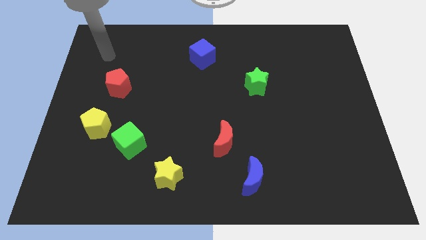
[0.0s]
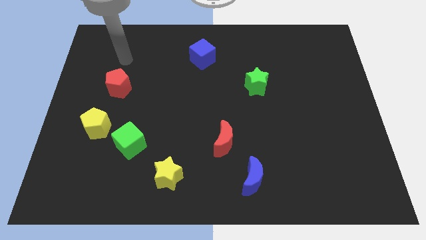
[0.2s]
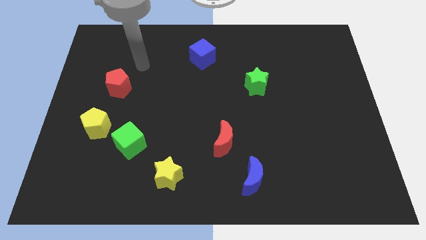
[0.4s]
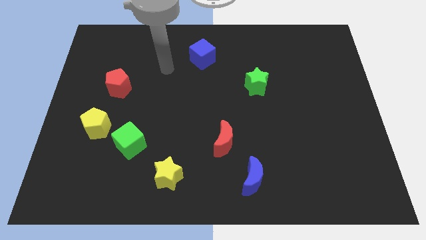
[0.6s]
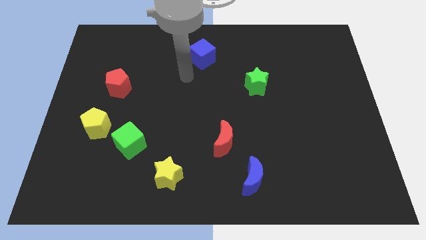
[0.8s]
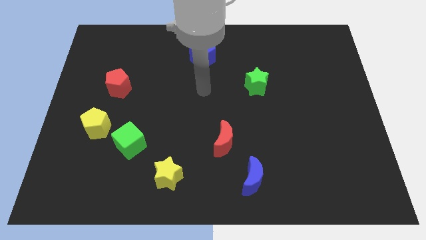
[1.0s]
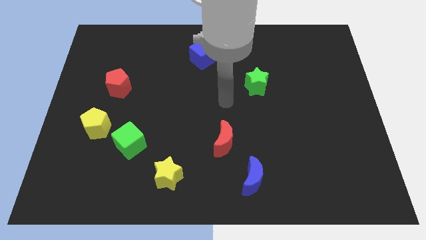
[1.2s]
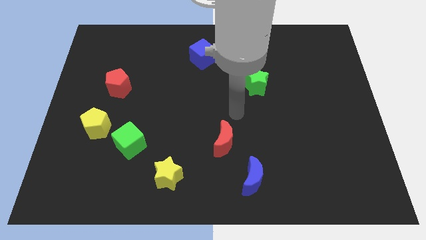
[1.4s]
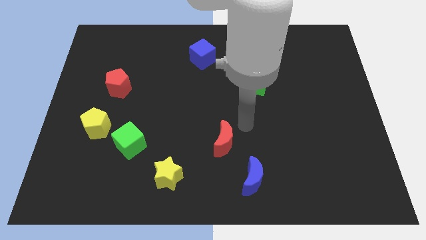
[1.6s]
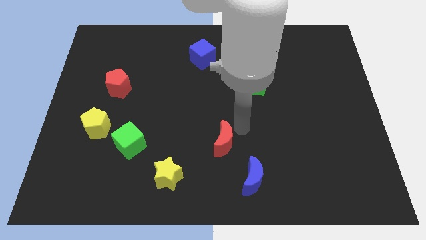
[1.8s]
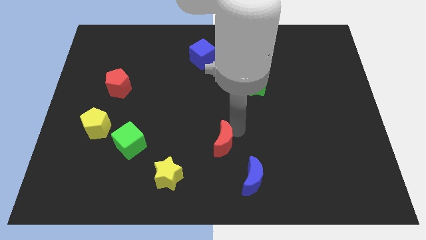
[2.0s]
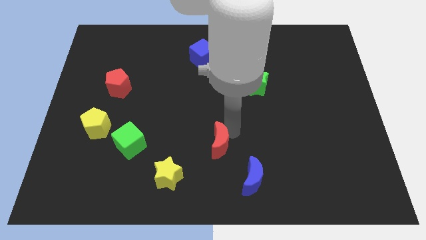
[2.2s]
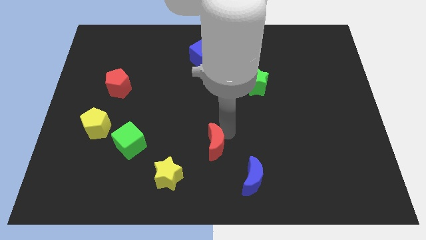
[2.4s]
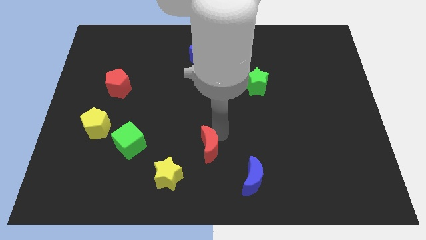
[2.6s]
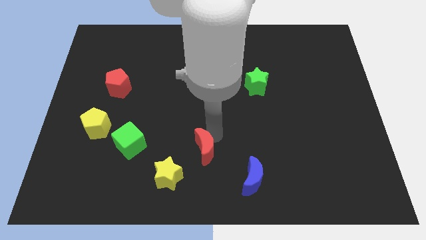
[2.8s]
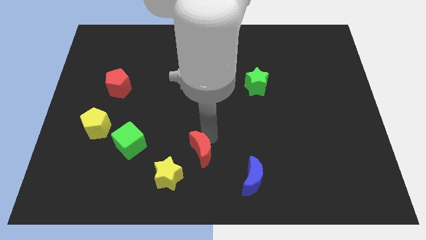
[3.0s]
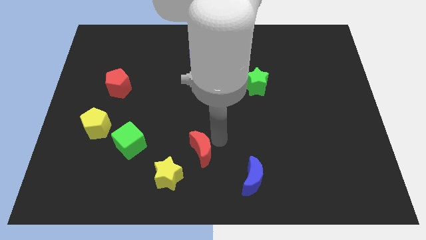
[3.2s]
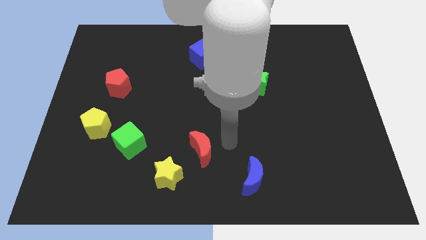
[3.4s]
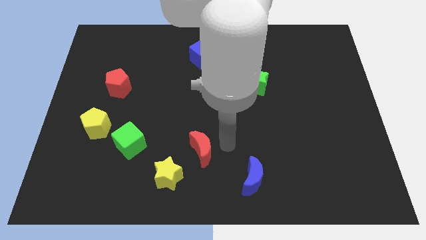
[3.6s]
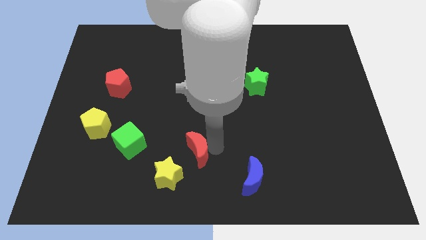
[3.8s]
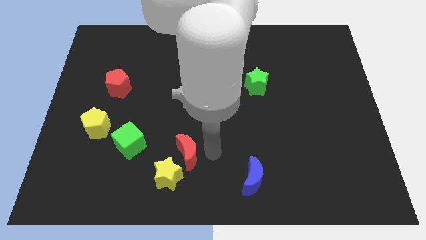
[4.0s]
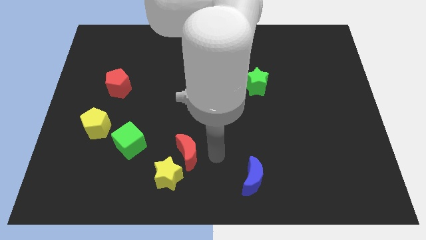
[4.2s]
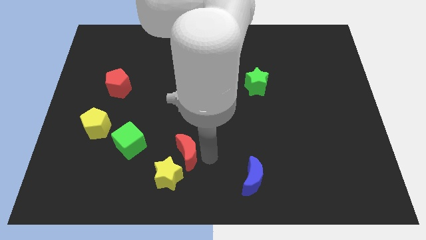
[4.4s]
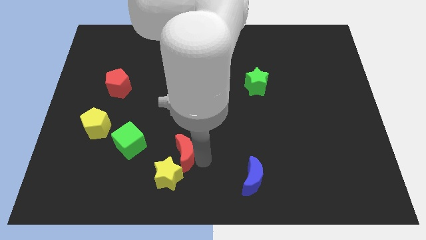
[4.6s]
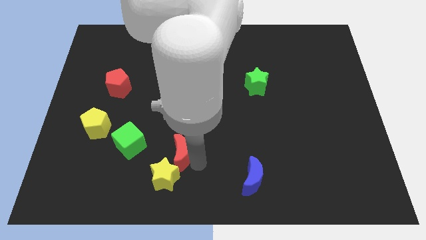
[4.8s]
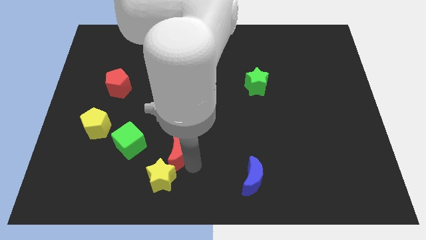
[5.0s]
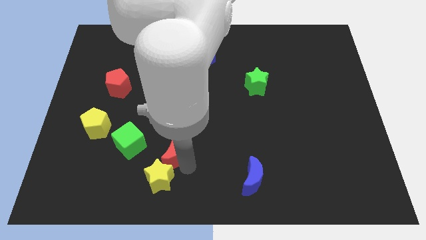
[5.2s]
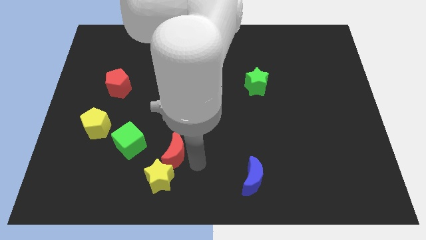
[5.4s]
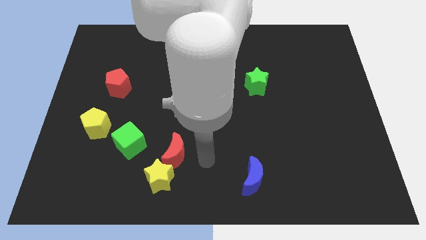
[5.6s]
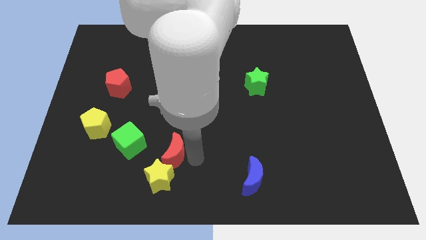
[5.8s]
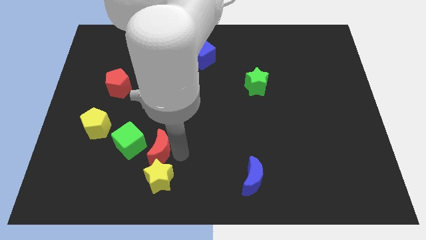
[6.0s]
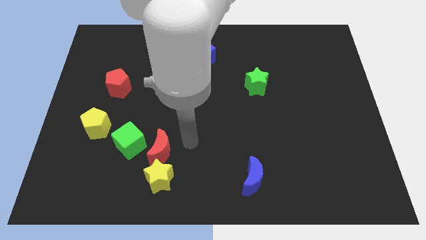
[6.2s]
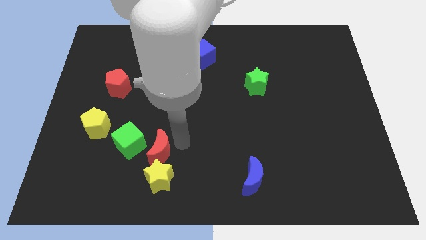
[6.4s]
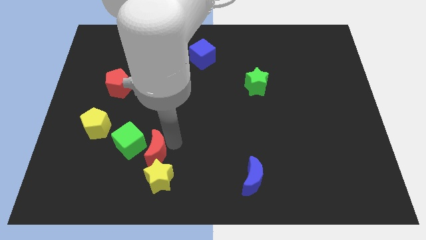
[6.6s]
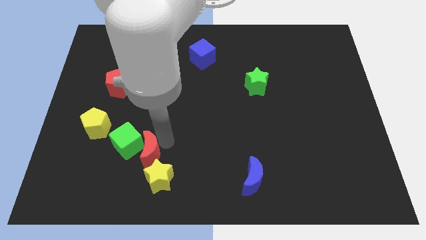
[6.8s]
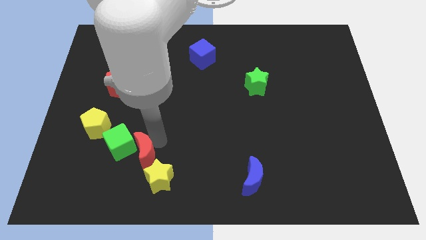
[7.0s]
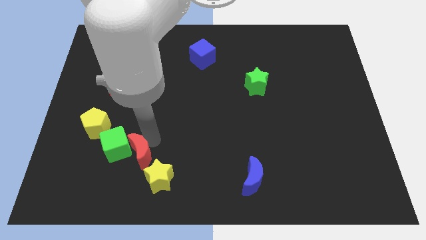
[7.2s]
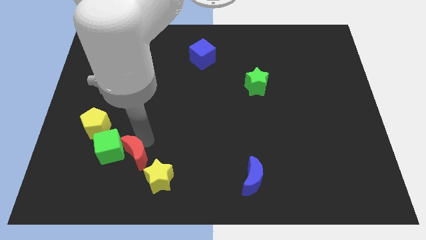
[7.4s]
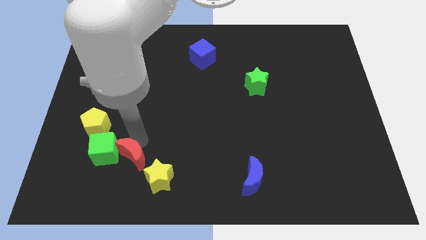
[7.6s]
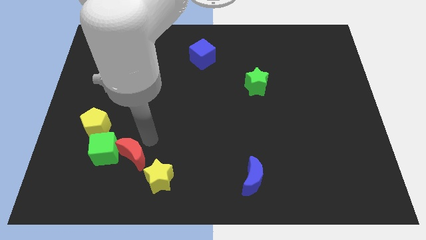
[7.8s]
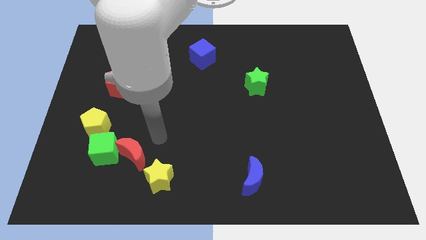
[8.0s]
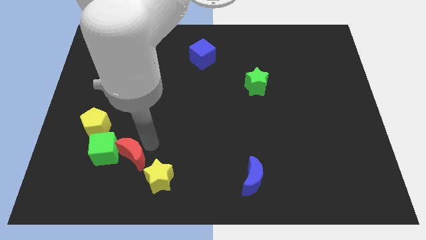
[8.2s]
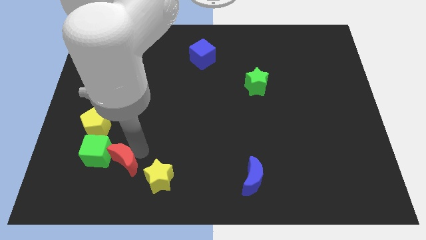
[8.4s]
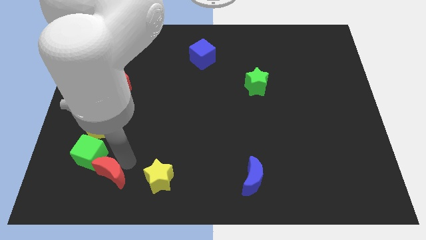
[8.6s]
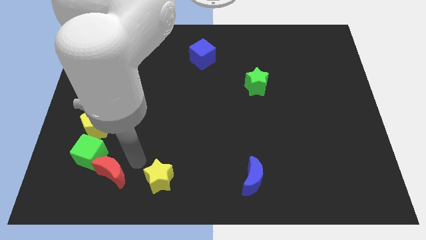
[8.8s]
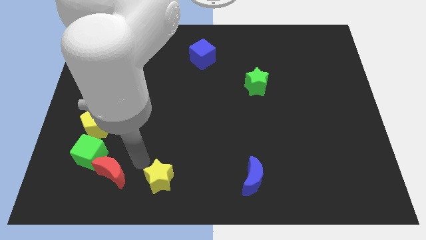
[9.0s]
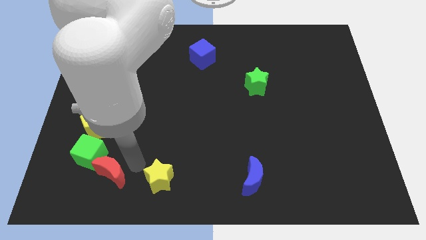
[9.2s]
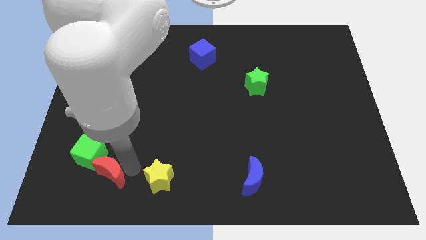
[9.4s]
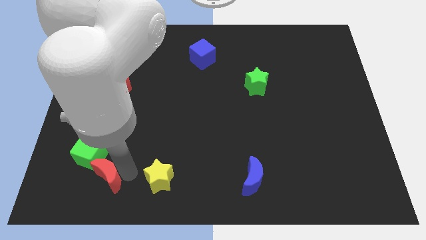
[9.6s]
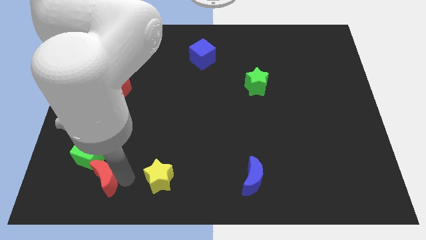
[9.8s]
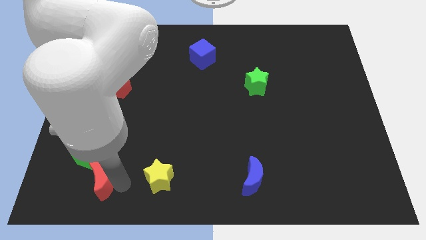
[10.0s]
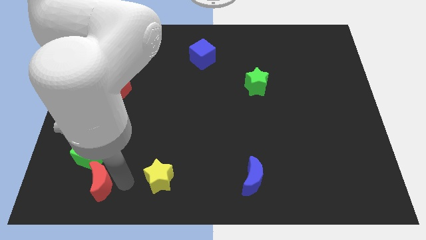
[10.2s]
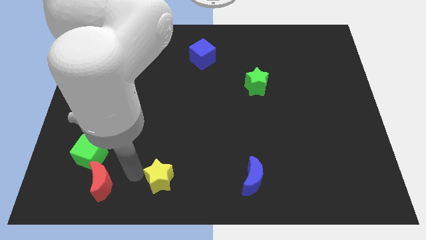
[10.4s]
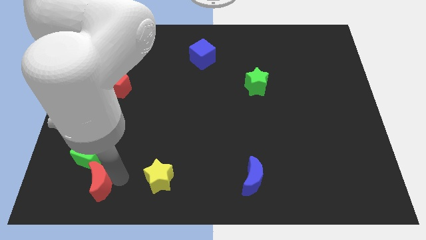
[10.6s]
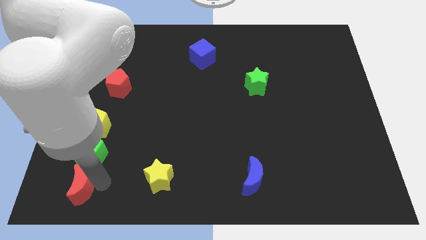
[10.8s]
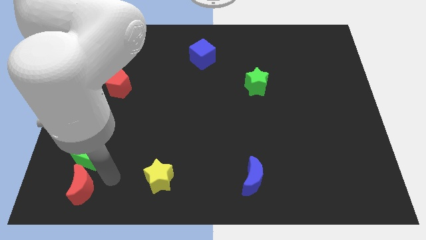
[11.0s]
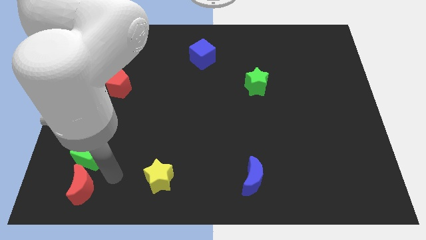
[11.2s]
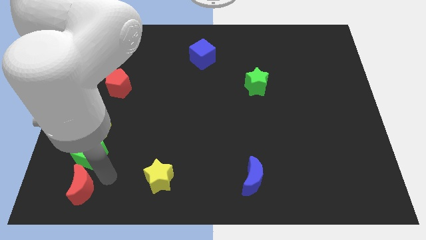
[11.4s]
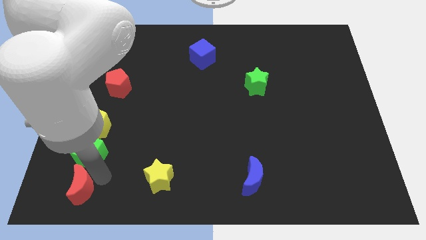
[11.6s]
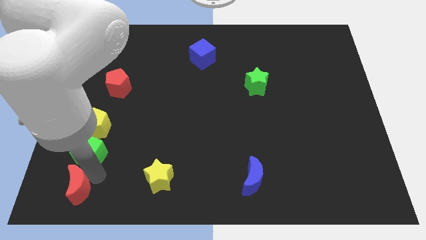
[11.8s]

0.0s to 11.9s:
put the red moon to the bottom left corner
